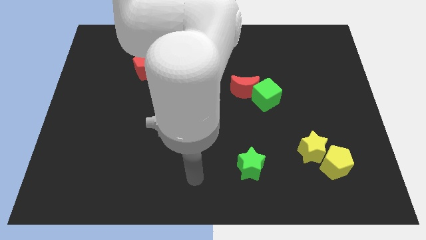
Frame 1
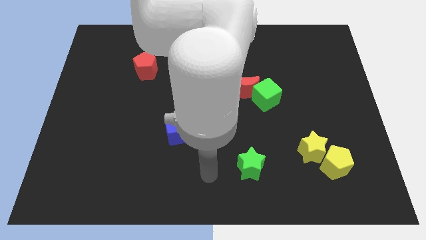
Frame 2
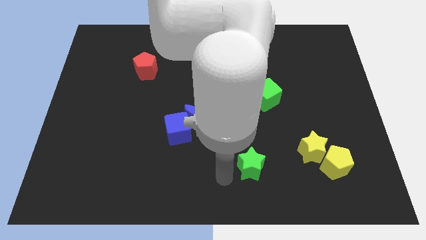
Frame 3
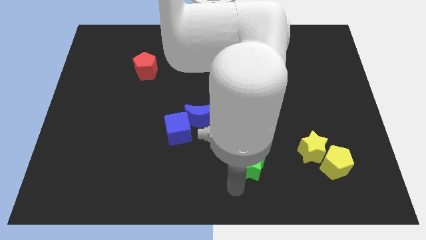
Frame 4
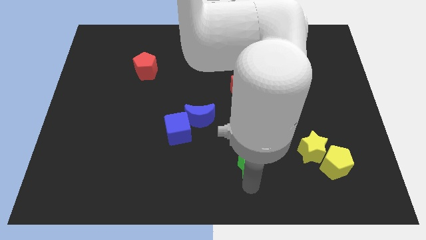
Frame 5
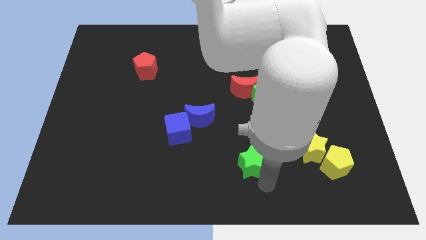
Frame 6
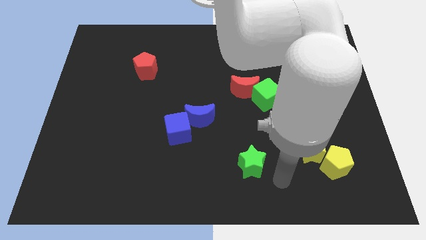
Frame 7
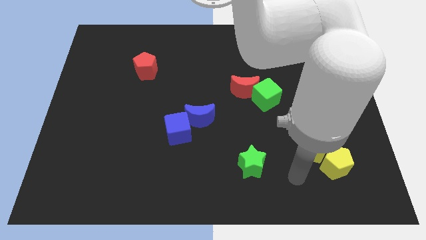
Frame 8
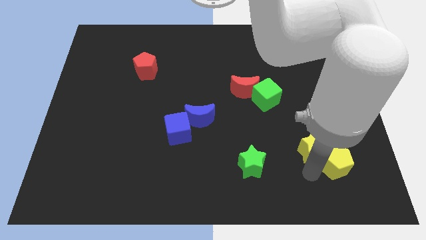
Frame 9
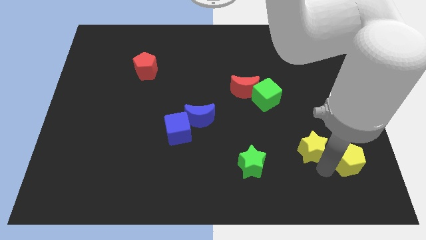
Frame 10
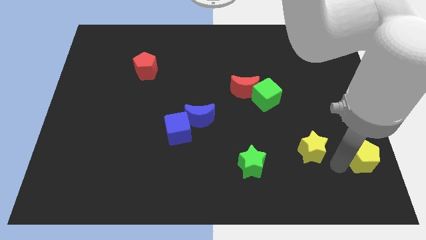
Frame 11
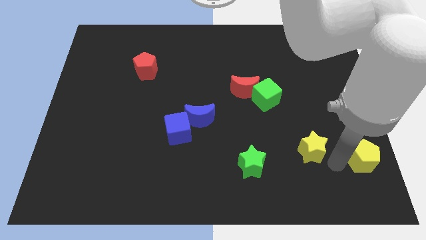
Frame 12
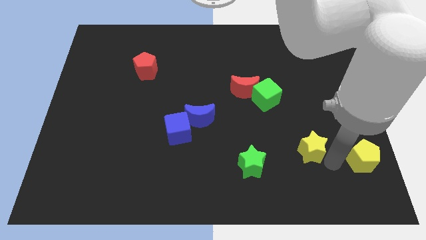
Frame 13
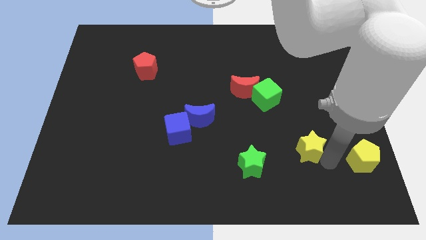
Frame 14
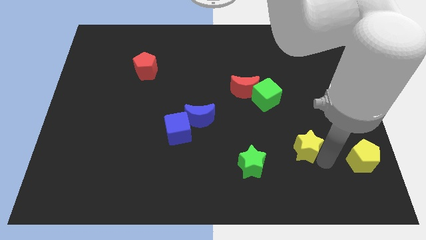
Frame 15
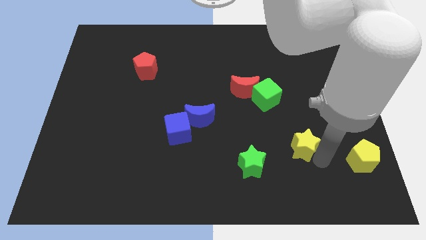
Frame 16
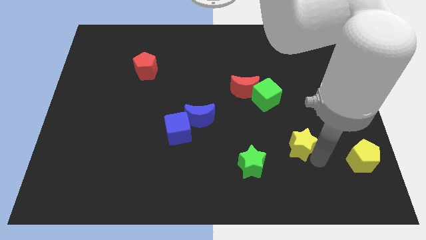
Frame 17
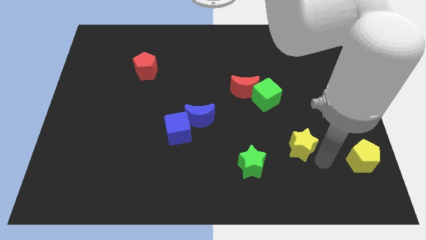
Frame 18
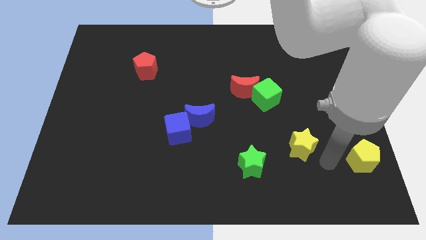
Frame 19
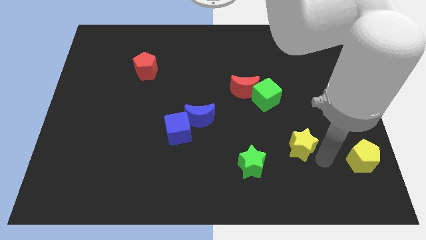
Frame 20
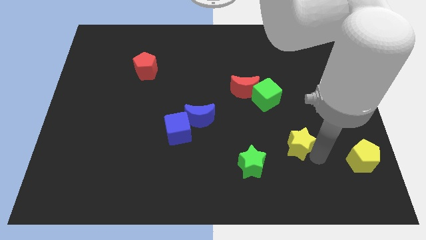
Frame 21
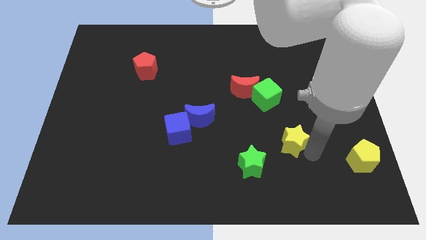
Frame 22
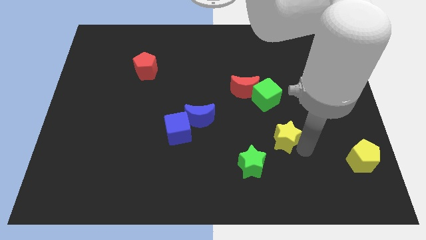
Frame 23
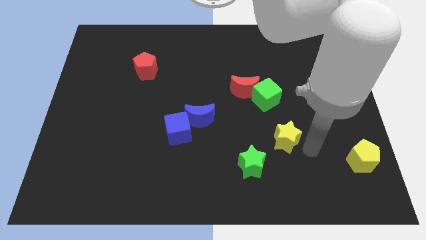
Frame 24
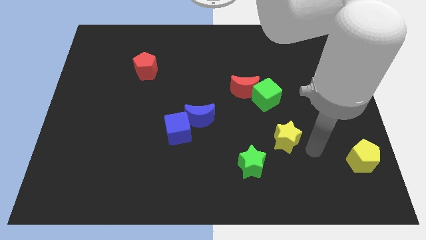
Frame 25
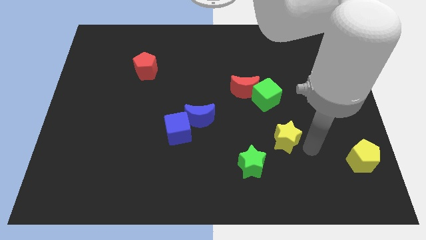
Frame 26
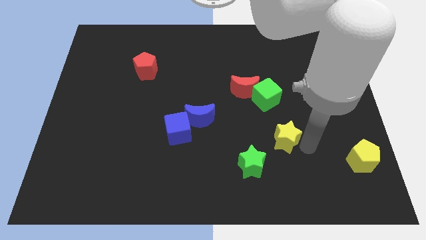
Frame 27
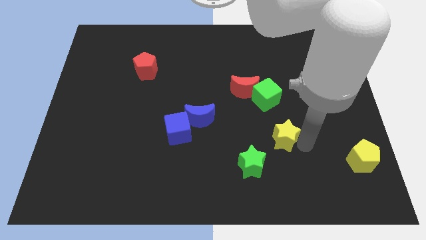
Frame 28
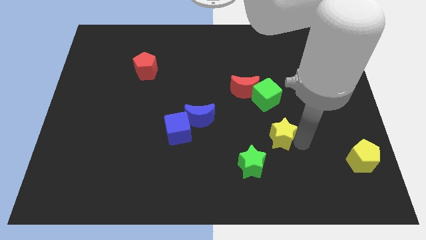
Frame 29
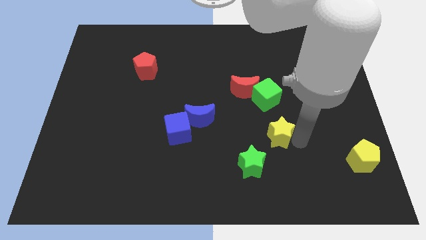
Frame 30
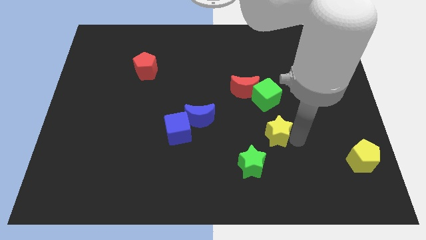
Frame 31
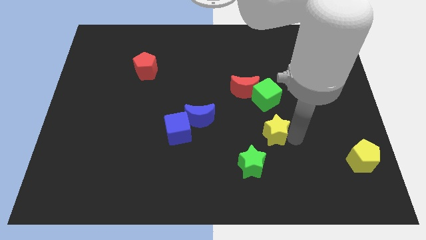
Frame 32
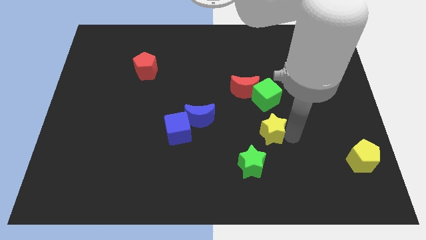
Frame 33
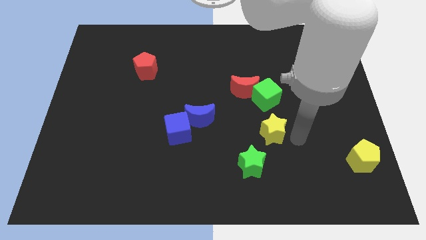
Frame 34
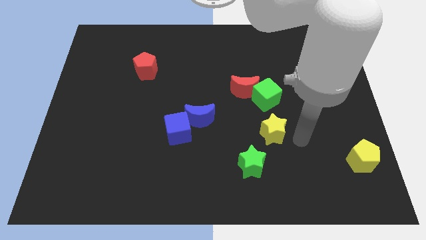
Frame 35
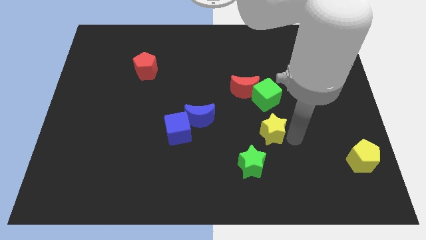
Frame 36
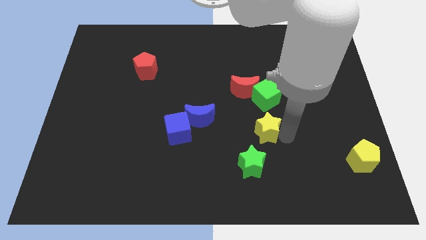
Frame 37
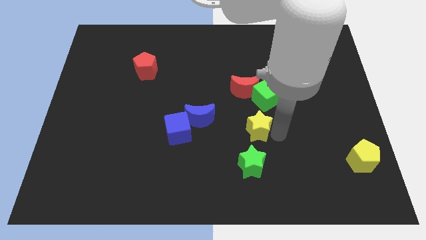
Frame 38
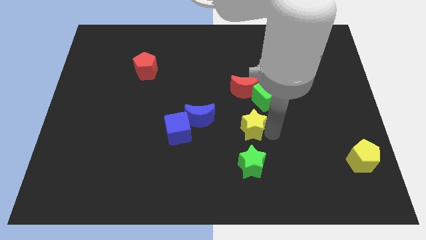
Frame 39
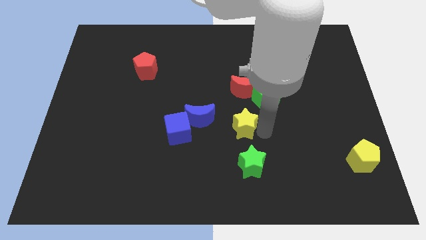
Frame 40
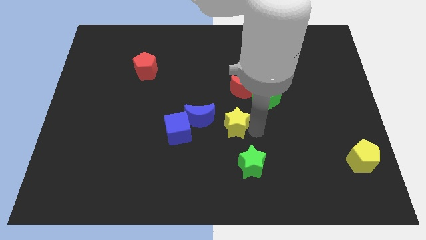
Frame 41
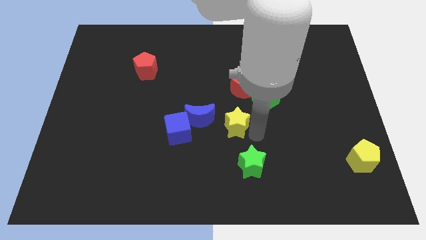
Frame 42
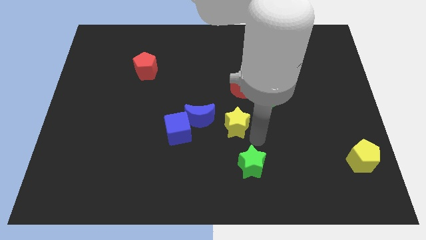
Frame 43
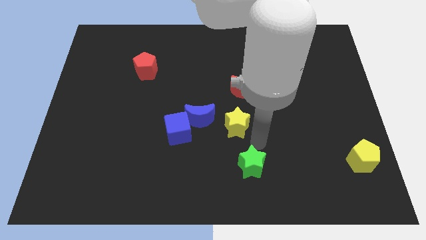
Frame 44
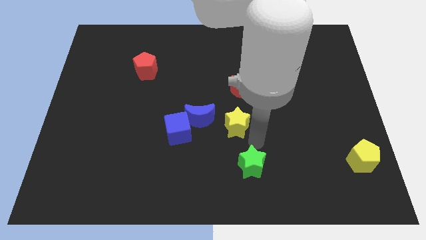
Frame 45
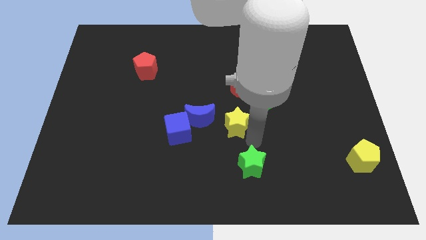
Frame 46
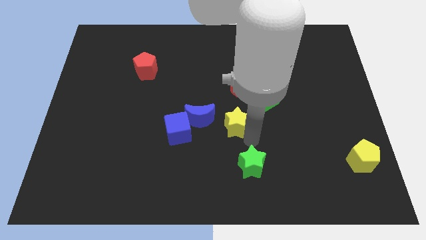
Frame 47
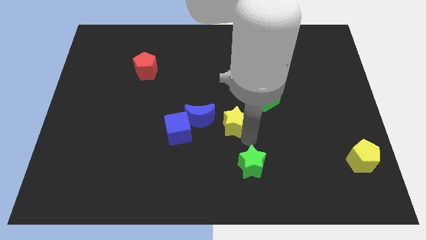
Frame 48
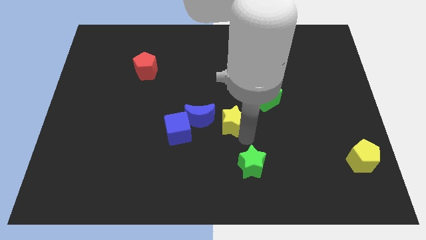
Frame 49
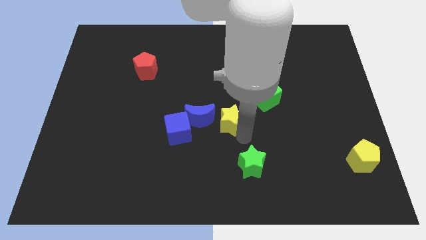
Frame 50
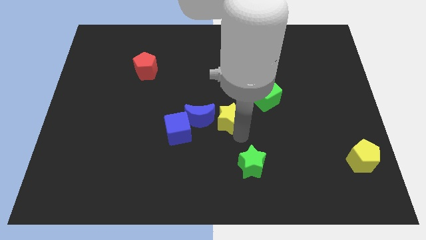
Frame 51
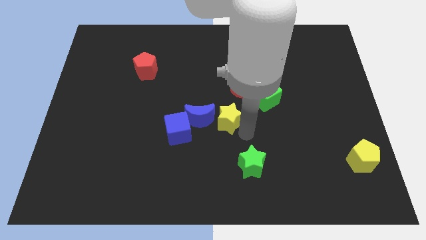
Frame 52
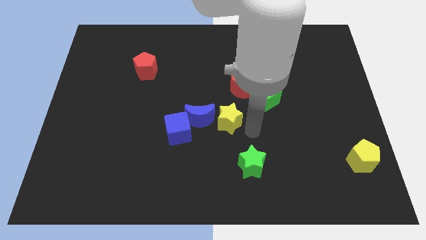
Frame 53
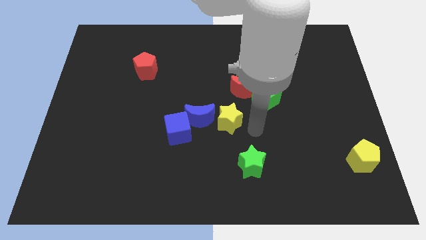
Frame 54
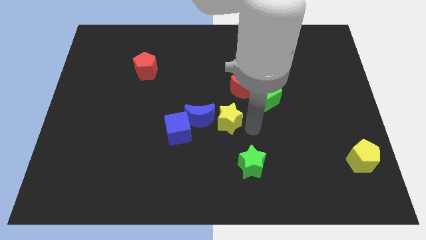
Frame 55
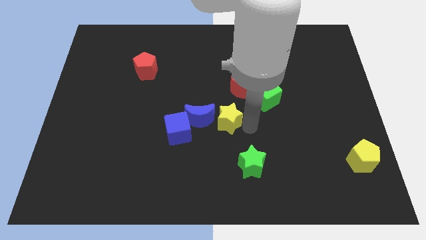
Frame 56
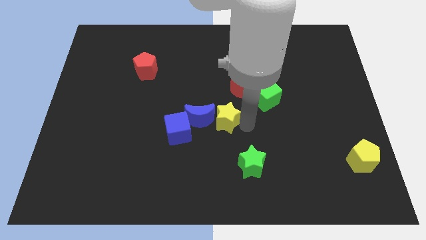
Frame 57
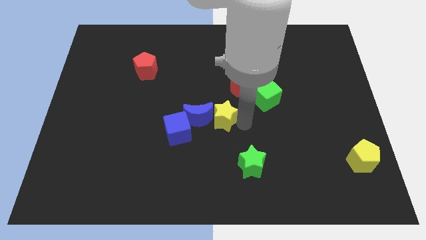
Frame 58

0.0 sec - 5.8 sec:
slide the yellow star to the top right side of the blue cube

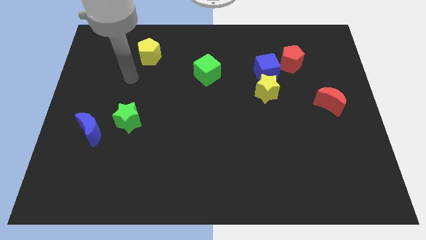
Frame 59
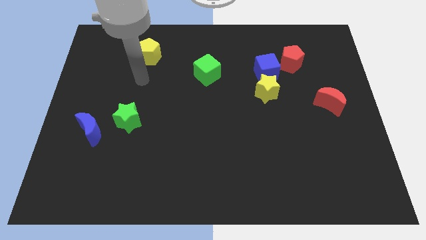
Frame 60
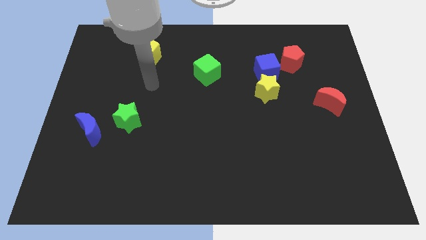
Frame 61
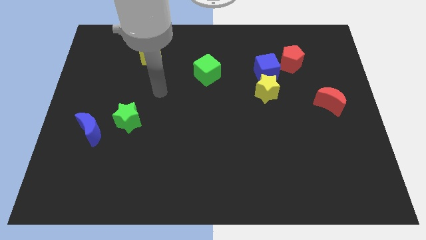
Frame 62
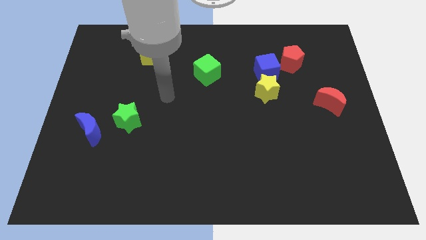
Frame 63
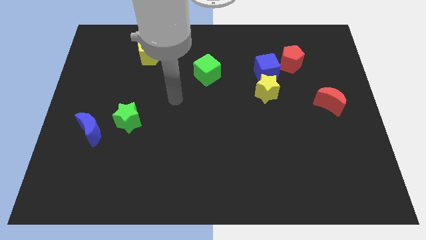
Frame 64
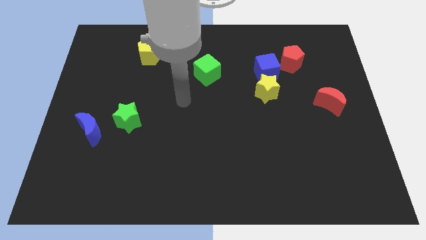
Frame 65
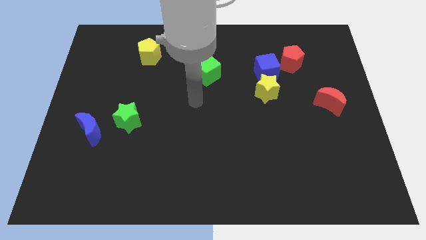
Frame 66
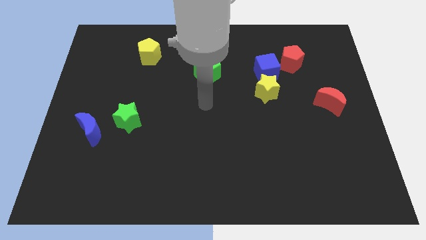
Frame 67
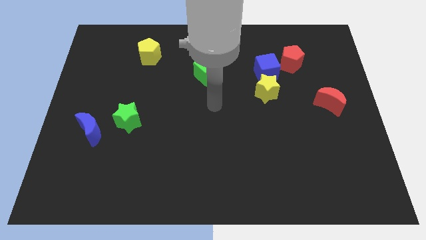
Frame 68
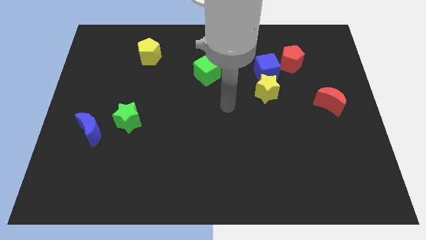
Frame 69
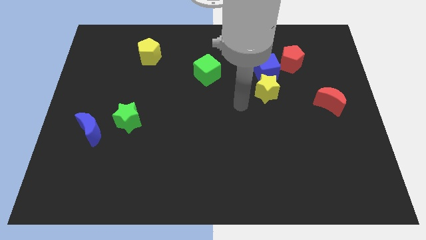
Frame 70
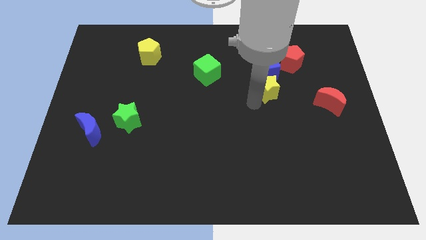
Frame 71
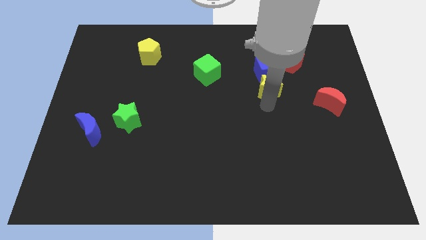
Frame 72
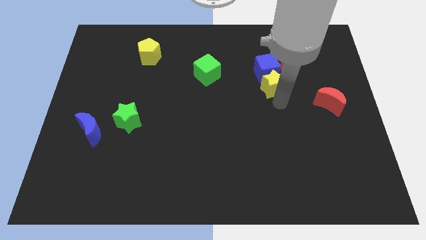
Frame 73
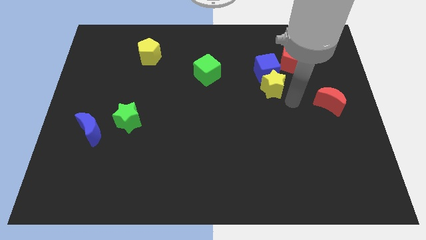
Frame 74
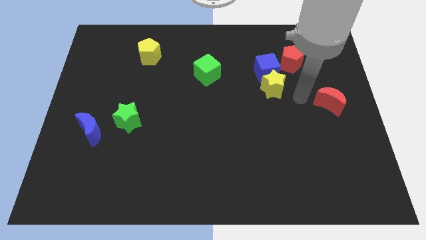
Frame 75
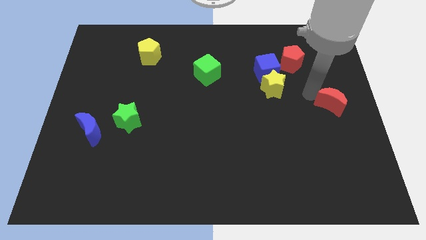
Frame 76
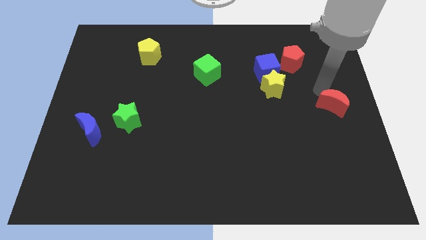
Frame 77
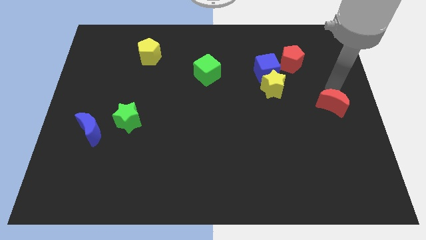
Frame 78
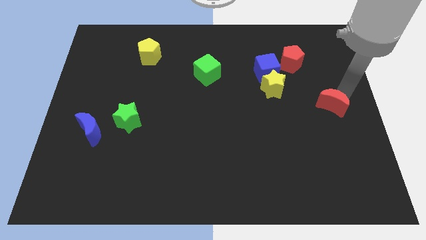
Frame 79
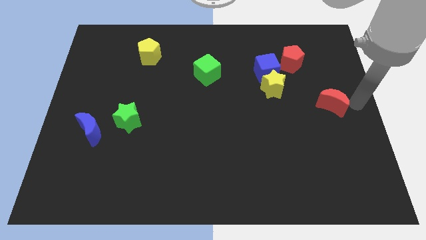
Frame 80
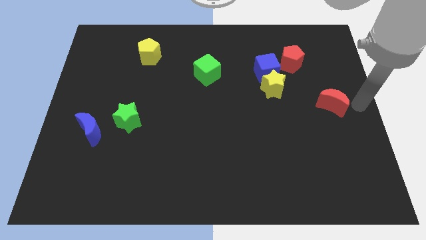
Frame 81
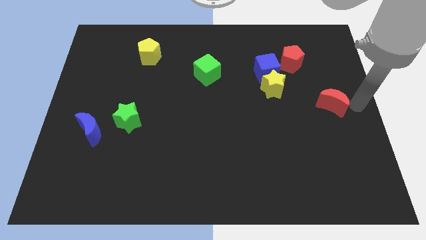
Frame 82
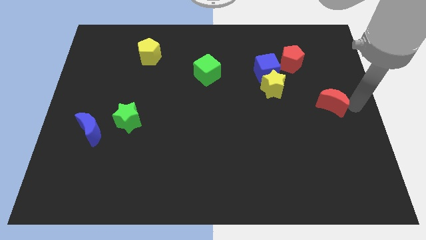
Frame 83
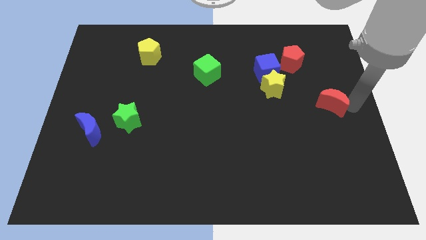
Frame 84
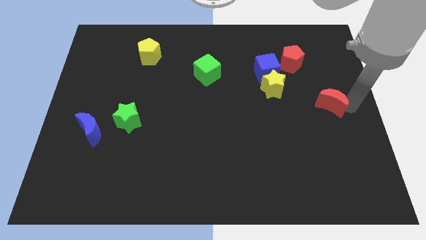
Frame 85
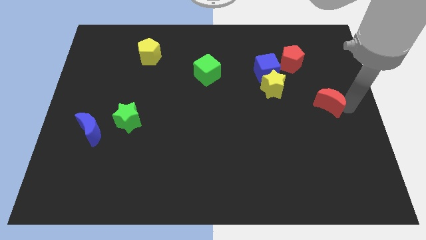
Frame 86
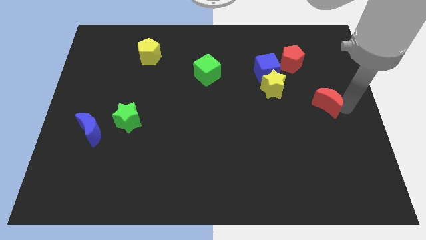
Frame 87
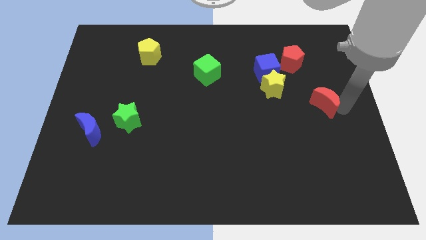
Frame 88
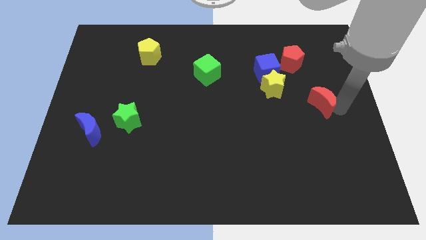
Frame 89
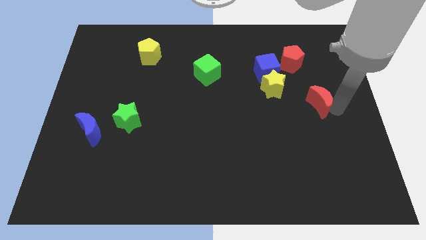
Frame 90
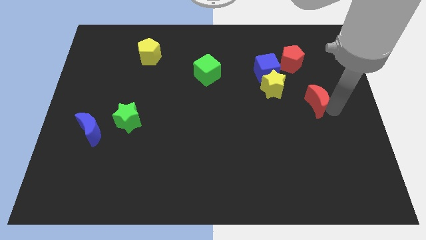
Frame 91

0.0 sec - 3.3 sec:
put the red moon to the bottom right side of the yellow star
